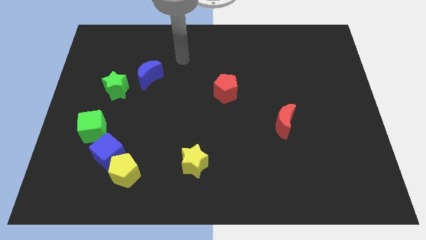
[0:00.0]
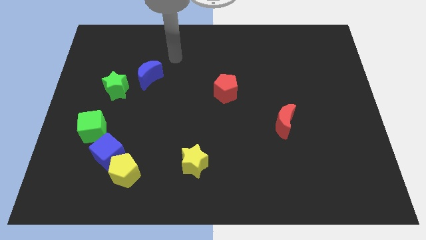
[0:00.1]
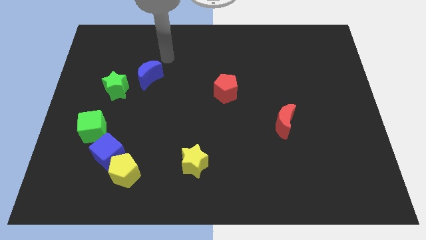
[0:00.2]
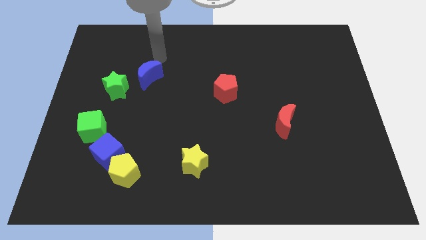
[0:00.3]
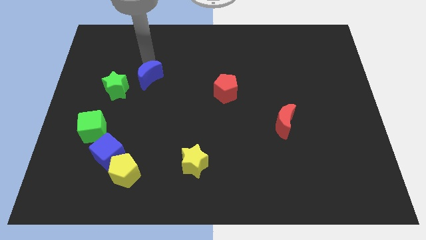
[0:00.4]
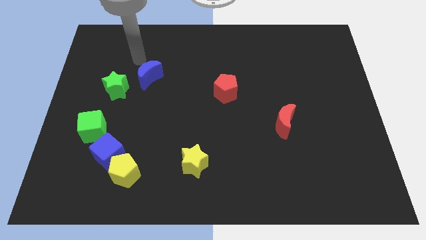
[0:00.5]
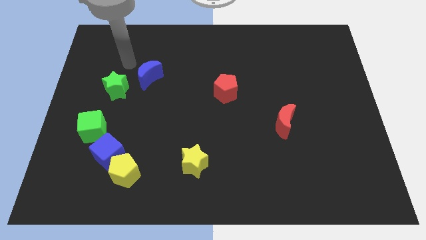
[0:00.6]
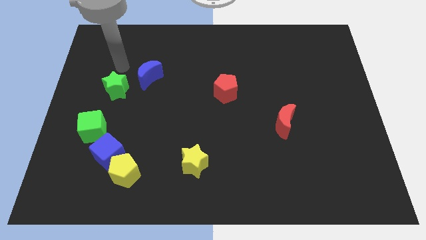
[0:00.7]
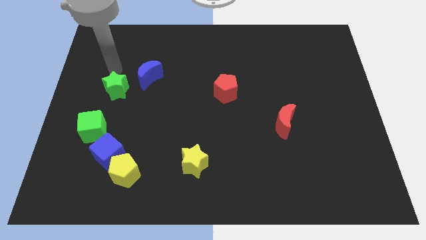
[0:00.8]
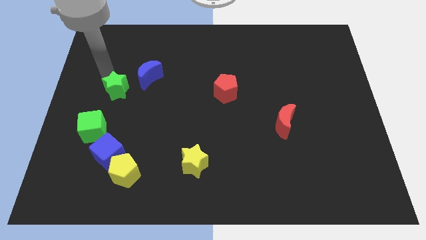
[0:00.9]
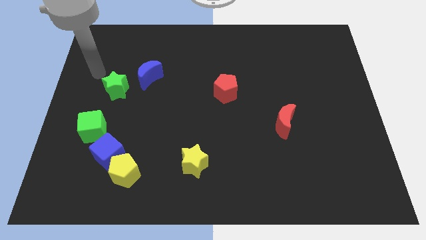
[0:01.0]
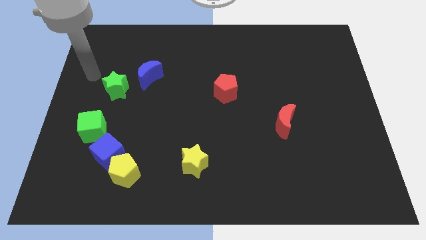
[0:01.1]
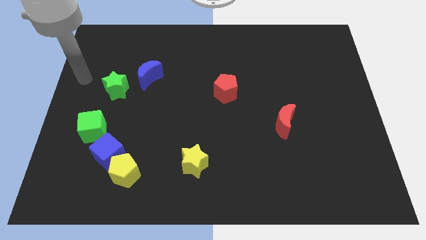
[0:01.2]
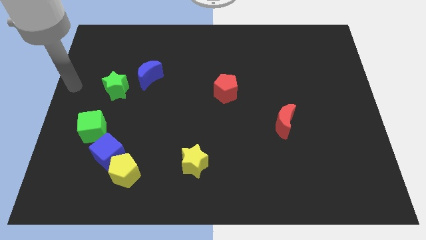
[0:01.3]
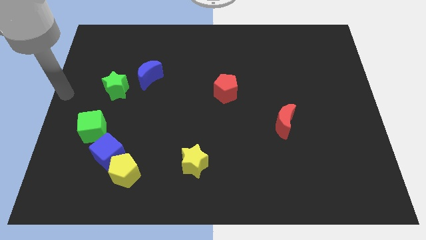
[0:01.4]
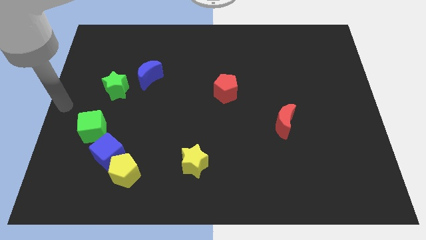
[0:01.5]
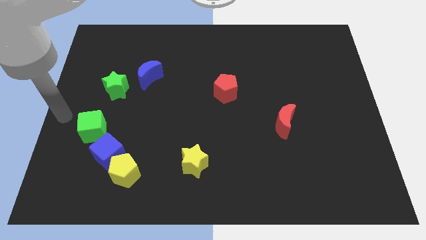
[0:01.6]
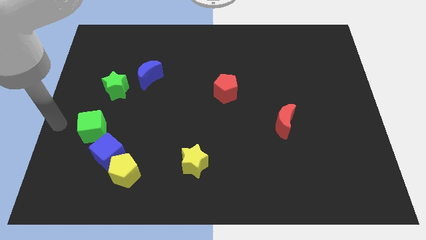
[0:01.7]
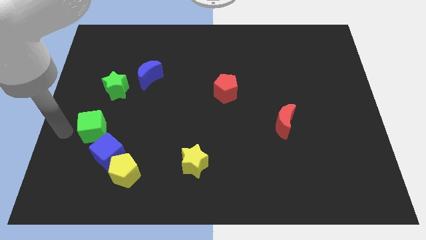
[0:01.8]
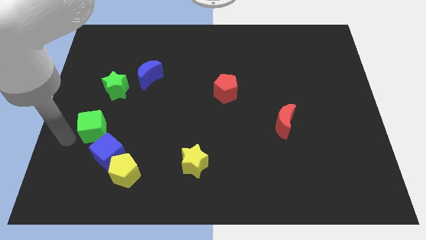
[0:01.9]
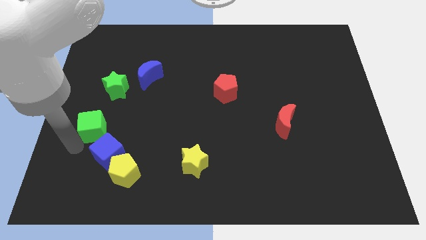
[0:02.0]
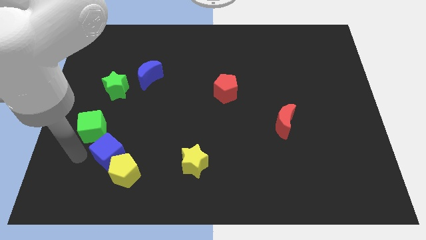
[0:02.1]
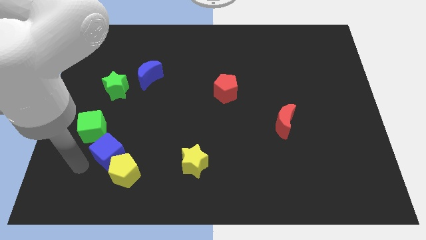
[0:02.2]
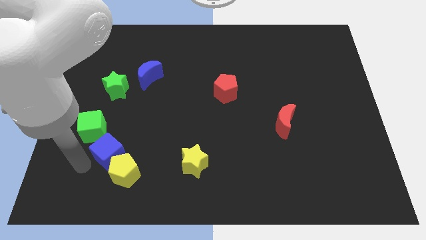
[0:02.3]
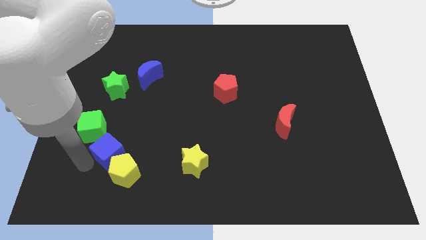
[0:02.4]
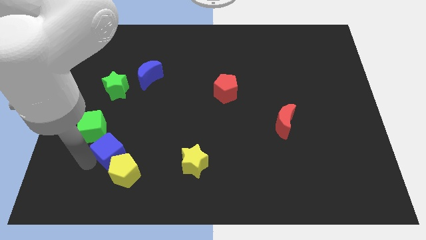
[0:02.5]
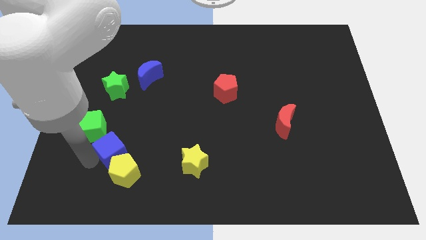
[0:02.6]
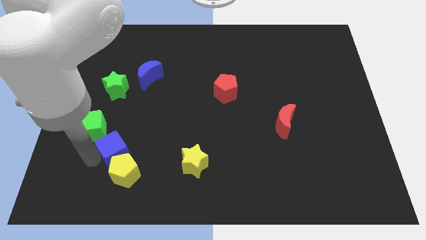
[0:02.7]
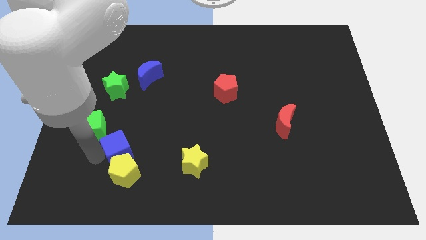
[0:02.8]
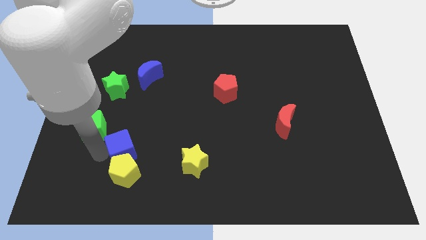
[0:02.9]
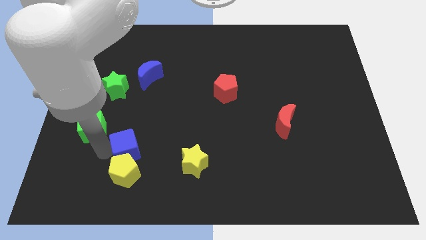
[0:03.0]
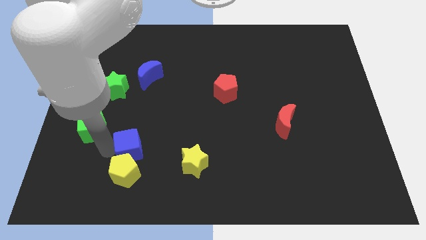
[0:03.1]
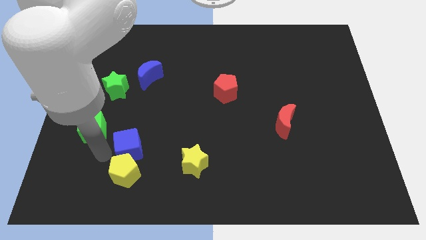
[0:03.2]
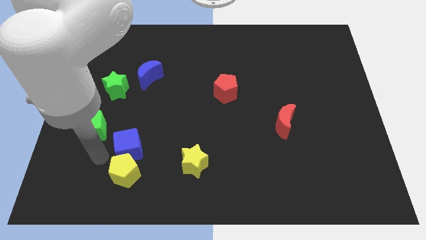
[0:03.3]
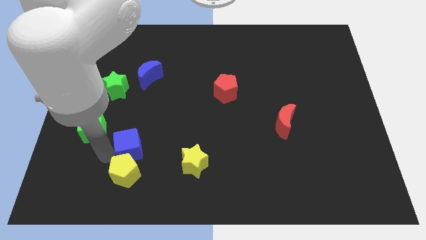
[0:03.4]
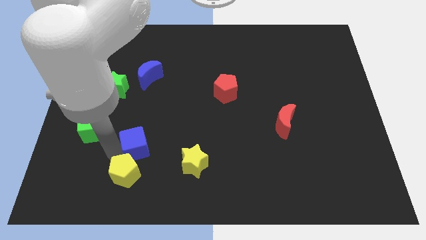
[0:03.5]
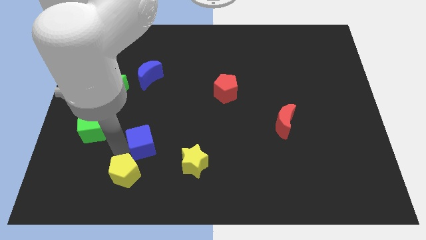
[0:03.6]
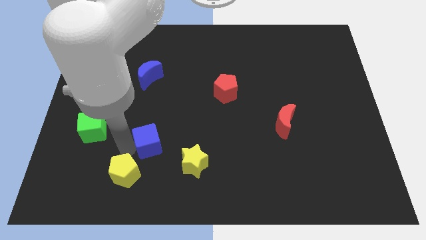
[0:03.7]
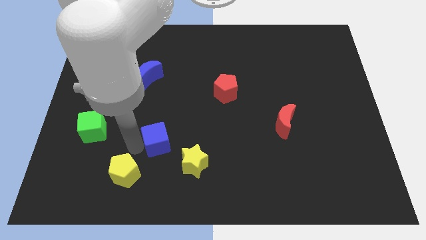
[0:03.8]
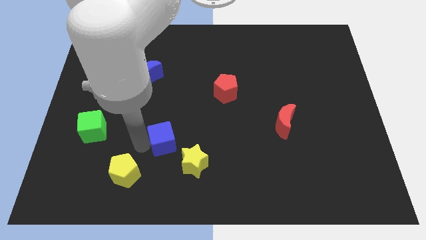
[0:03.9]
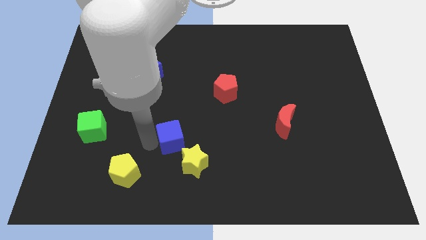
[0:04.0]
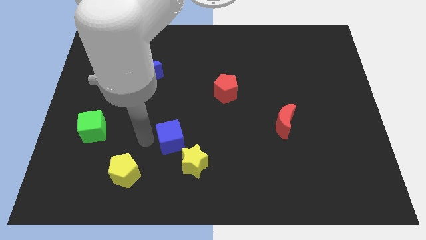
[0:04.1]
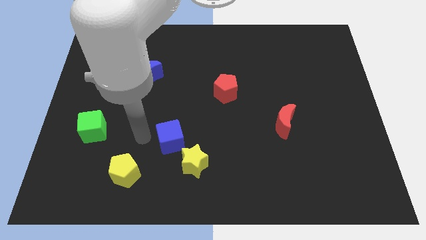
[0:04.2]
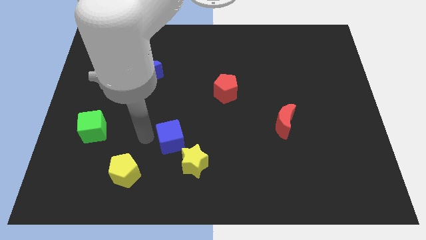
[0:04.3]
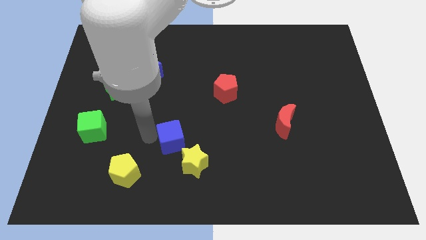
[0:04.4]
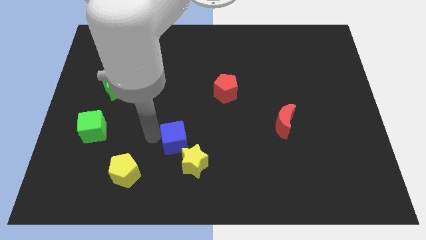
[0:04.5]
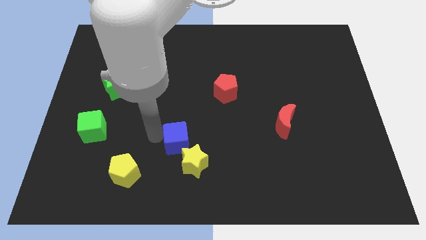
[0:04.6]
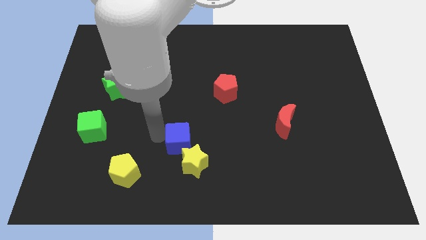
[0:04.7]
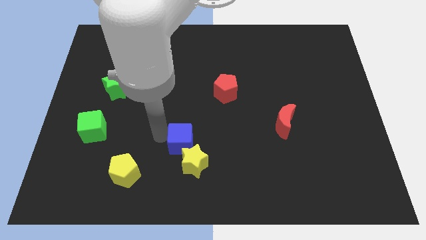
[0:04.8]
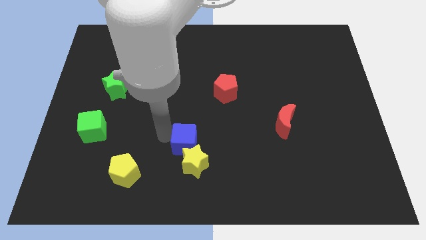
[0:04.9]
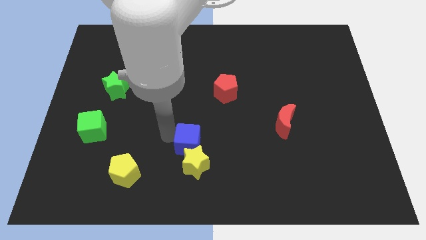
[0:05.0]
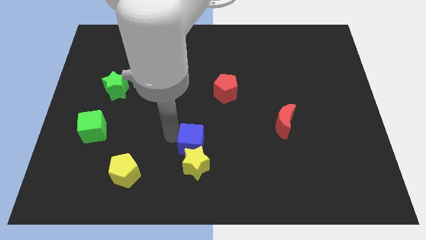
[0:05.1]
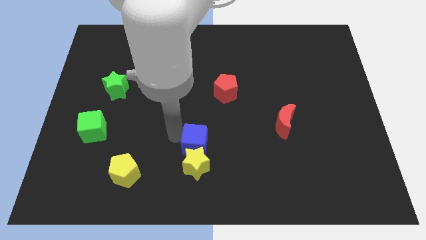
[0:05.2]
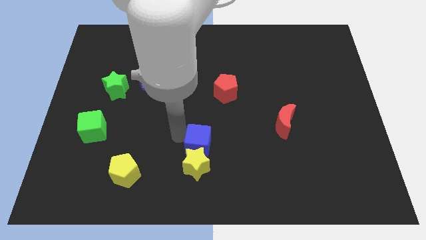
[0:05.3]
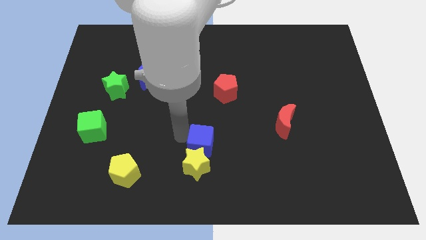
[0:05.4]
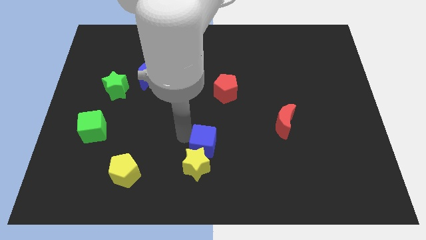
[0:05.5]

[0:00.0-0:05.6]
push the blue cube to the right

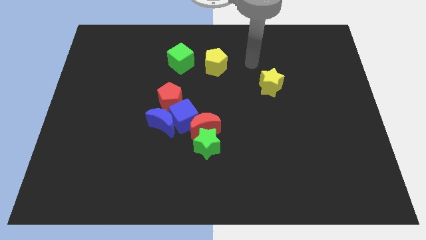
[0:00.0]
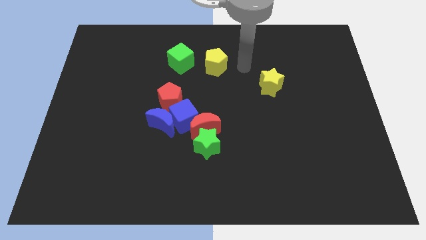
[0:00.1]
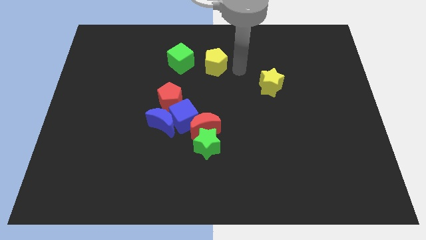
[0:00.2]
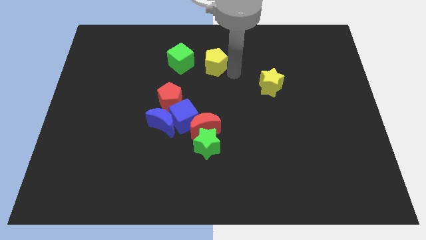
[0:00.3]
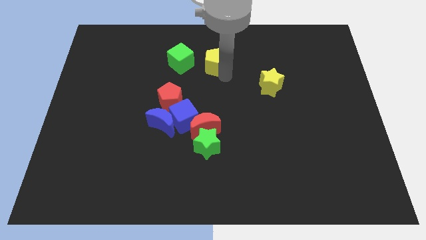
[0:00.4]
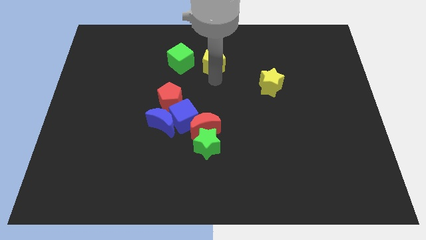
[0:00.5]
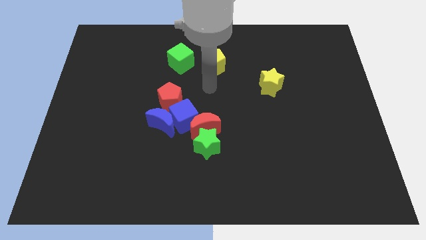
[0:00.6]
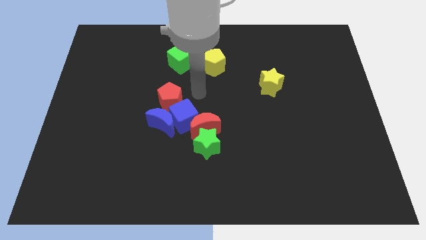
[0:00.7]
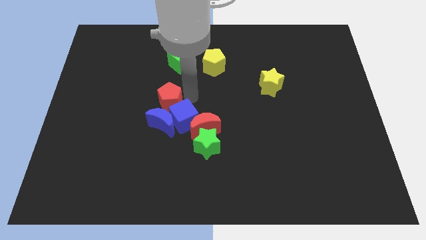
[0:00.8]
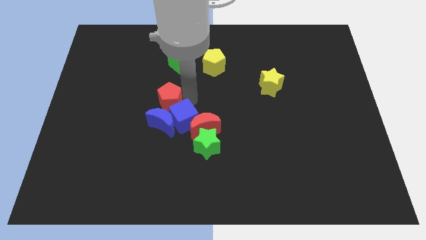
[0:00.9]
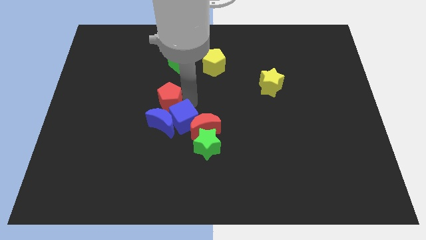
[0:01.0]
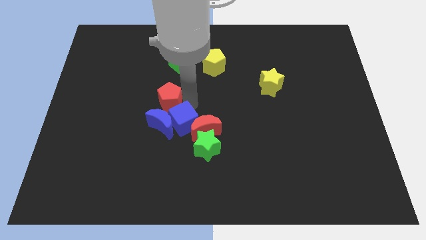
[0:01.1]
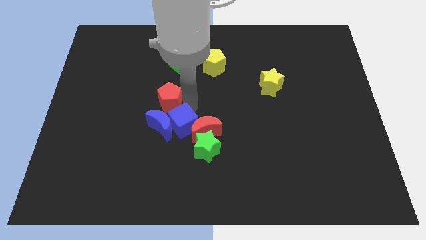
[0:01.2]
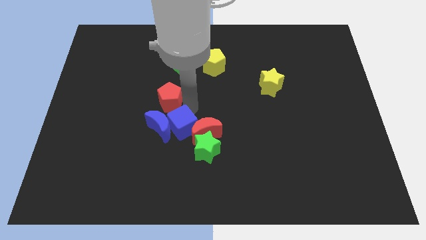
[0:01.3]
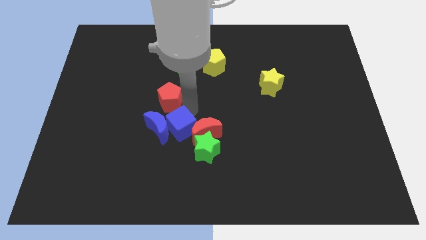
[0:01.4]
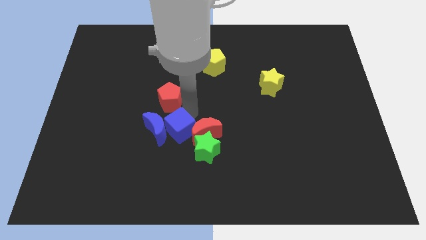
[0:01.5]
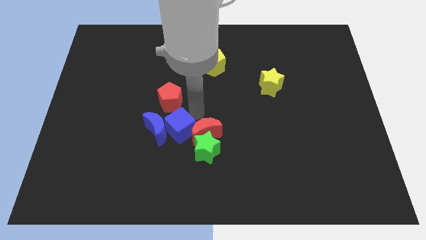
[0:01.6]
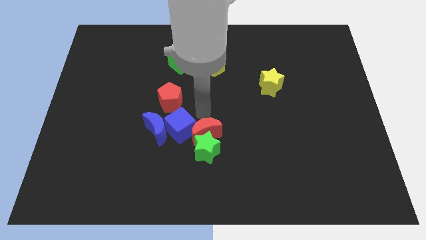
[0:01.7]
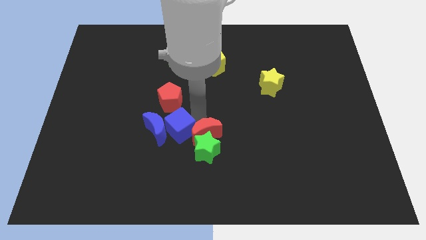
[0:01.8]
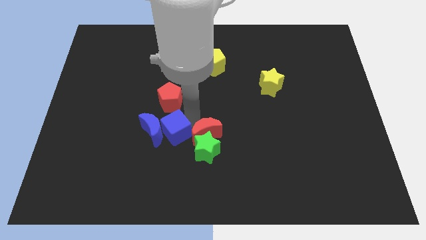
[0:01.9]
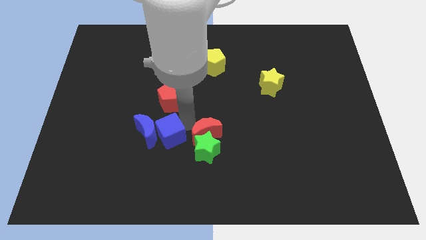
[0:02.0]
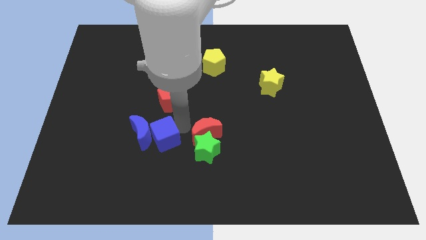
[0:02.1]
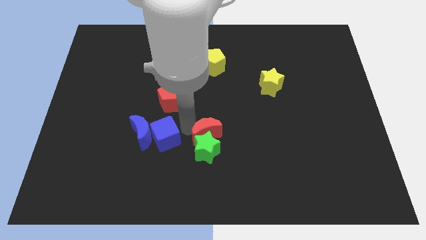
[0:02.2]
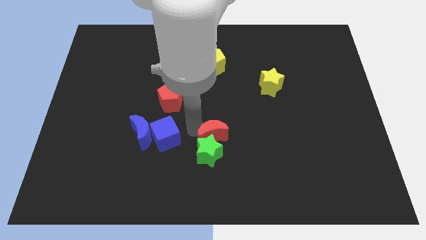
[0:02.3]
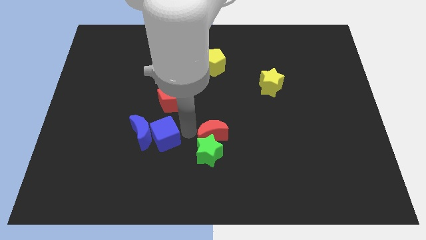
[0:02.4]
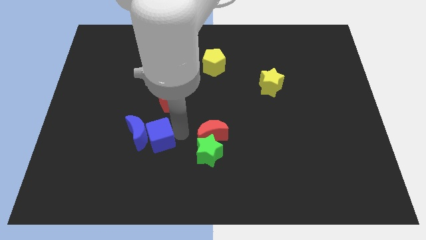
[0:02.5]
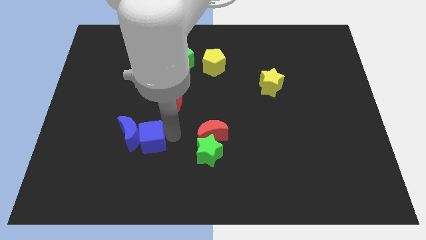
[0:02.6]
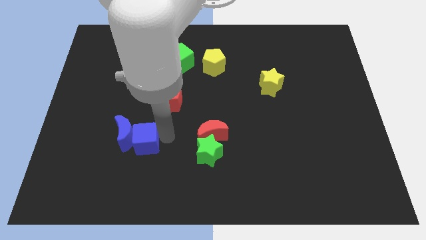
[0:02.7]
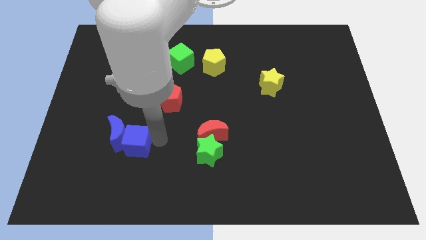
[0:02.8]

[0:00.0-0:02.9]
push the blue cube left slightly
